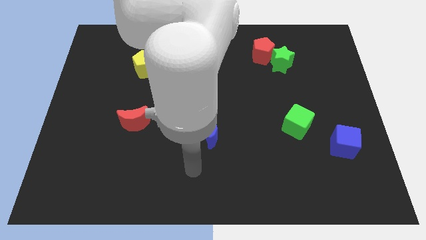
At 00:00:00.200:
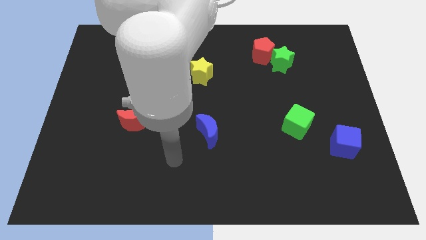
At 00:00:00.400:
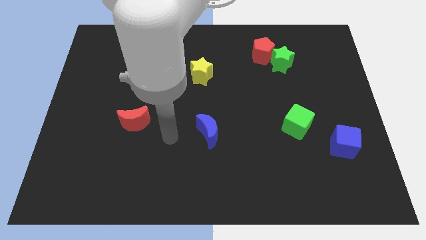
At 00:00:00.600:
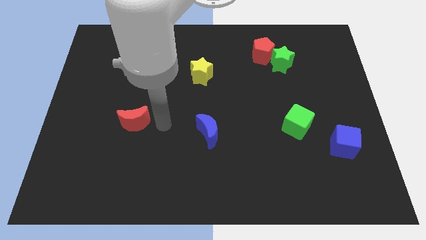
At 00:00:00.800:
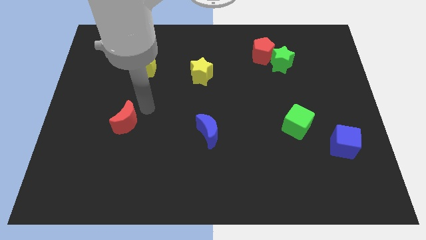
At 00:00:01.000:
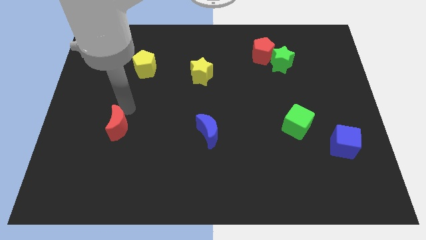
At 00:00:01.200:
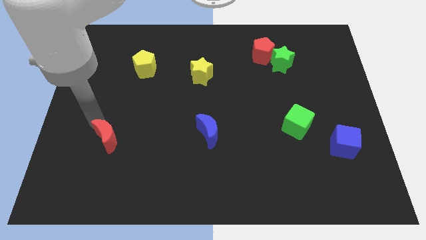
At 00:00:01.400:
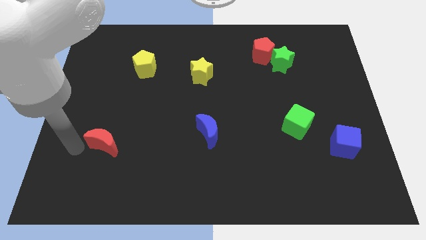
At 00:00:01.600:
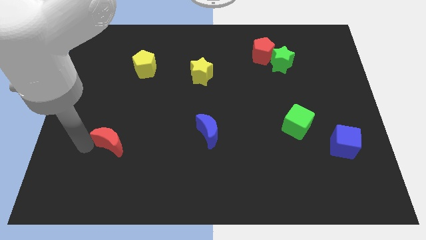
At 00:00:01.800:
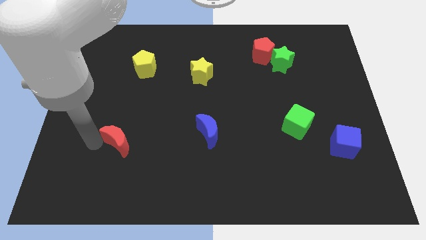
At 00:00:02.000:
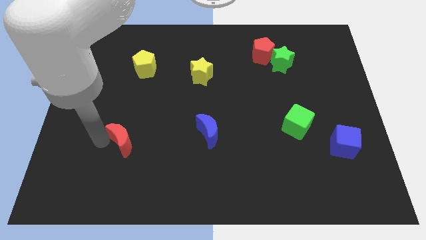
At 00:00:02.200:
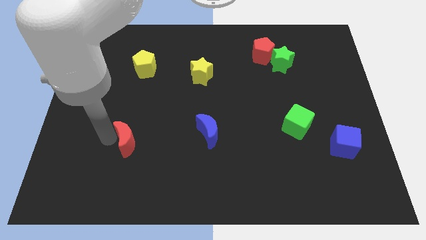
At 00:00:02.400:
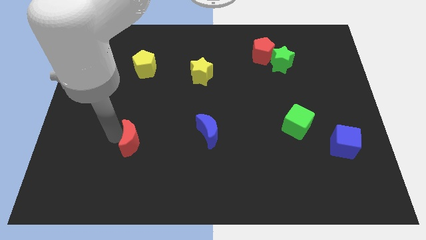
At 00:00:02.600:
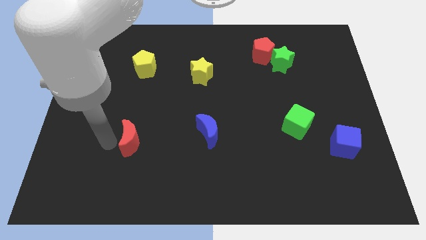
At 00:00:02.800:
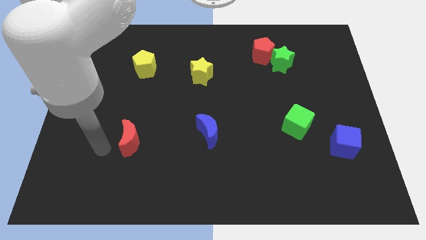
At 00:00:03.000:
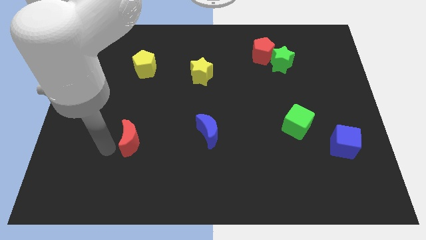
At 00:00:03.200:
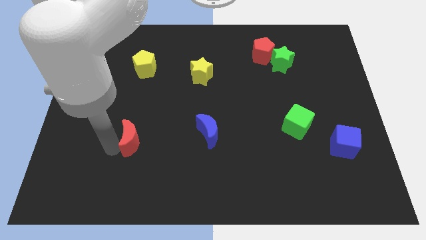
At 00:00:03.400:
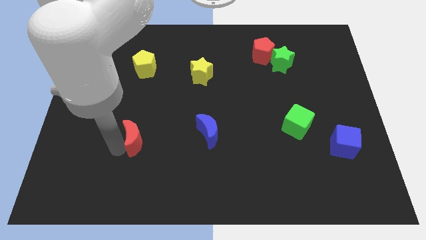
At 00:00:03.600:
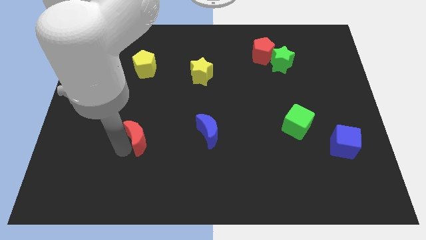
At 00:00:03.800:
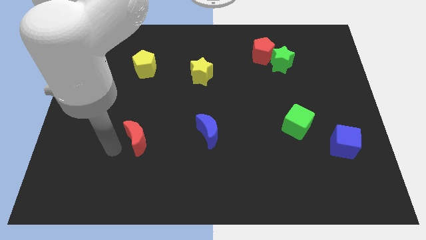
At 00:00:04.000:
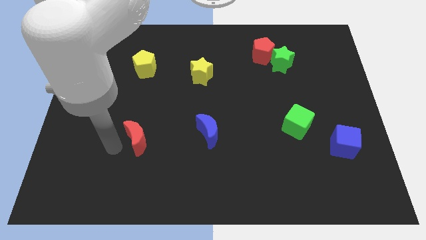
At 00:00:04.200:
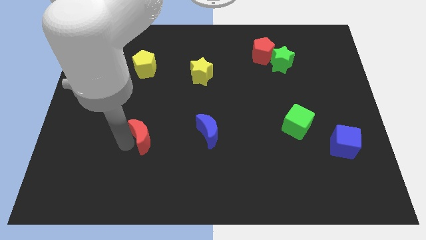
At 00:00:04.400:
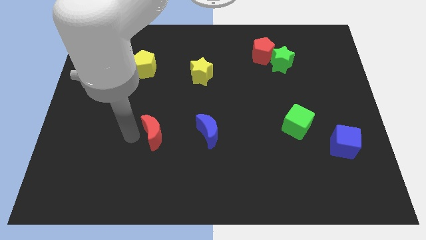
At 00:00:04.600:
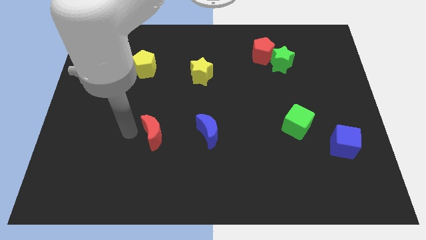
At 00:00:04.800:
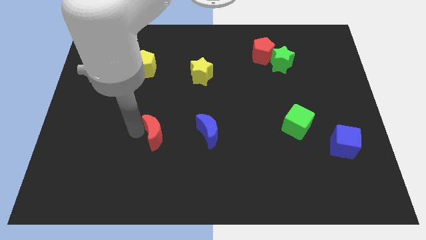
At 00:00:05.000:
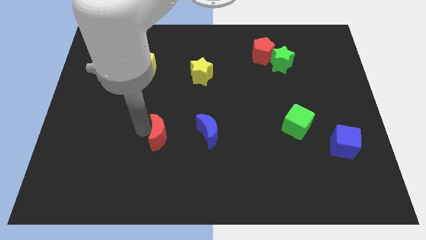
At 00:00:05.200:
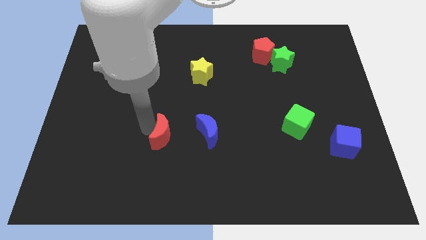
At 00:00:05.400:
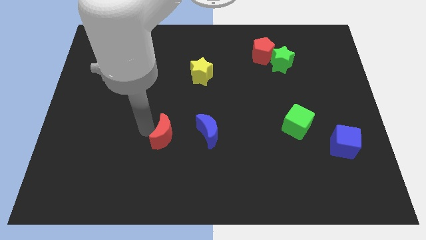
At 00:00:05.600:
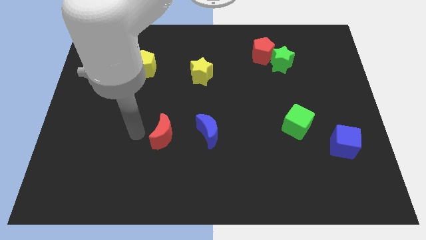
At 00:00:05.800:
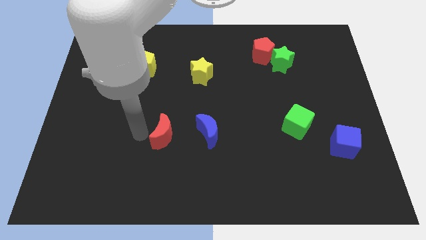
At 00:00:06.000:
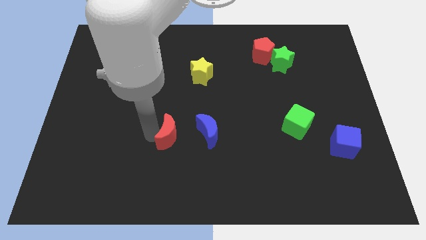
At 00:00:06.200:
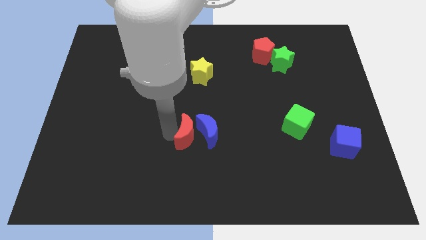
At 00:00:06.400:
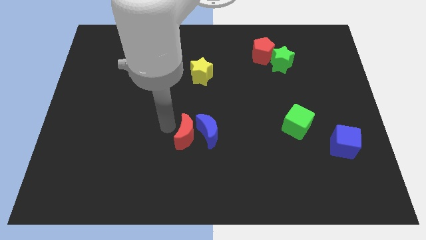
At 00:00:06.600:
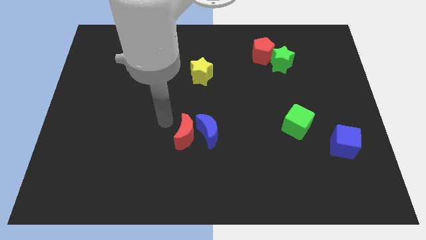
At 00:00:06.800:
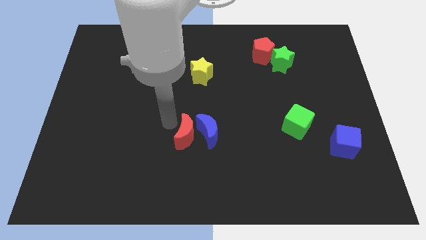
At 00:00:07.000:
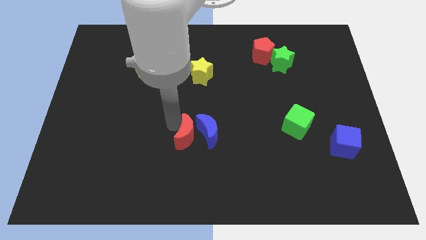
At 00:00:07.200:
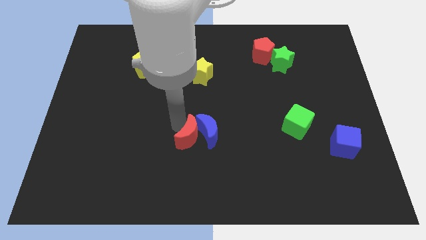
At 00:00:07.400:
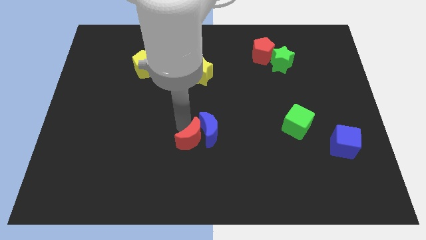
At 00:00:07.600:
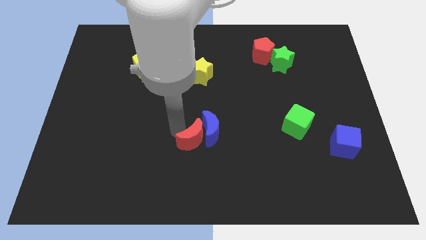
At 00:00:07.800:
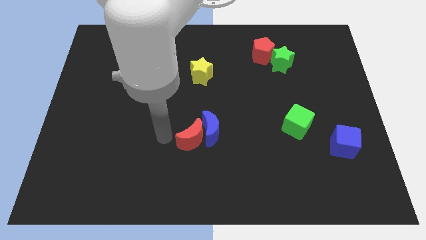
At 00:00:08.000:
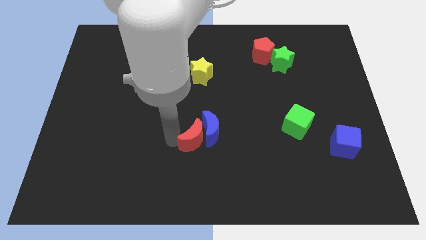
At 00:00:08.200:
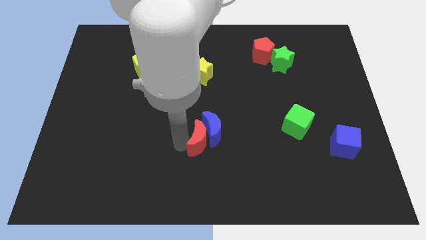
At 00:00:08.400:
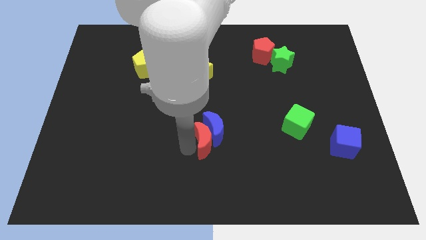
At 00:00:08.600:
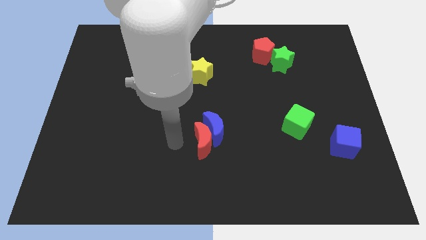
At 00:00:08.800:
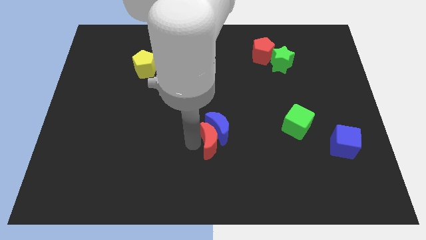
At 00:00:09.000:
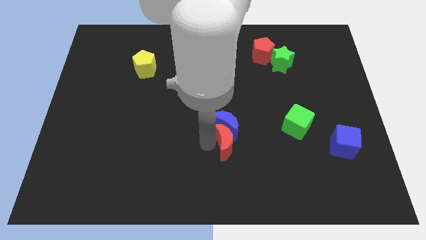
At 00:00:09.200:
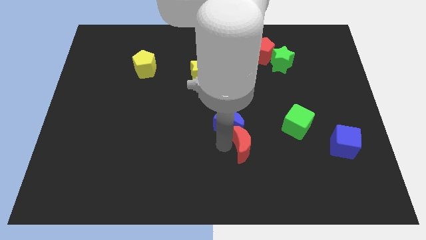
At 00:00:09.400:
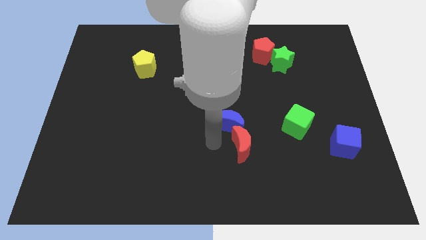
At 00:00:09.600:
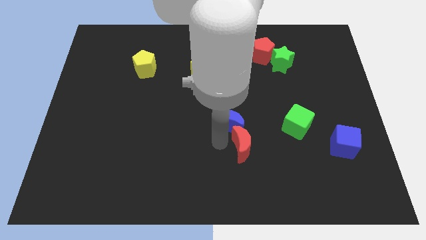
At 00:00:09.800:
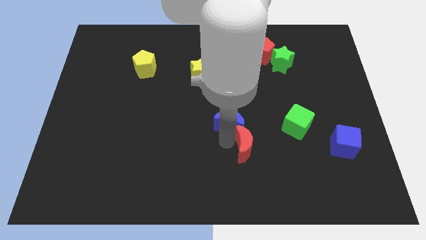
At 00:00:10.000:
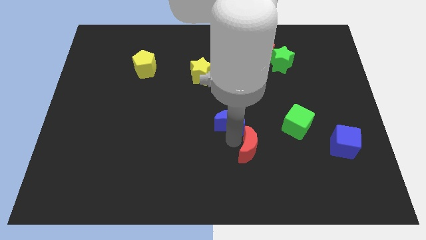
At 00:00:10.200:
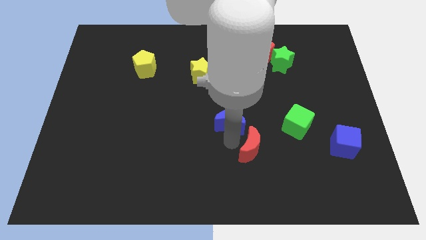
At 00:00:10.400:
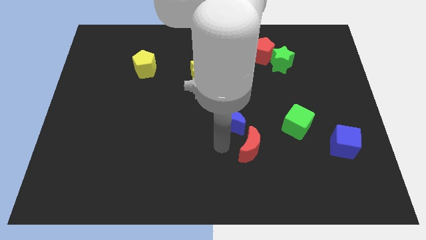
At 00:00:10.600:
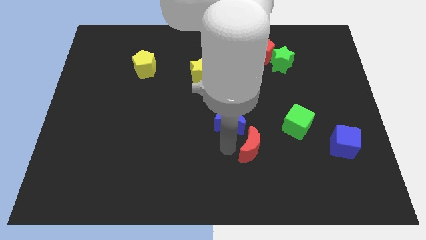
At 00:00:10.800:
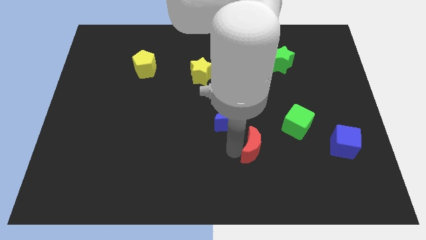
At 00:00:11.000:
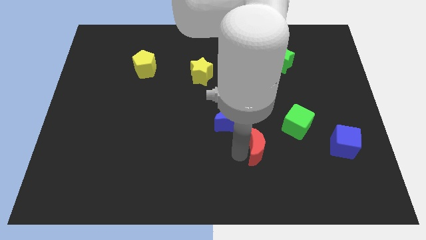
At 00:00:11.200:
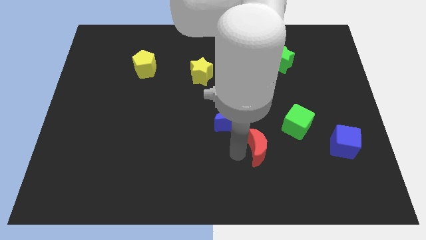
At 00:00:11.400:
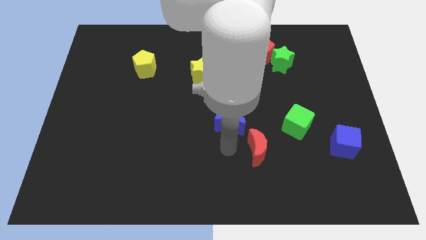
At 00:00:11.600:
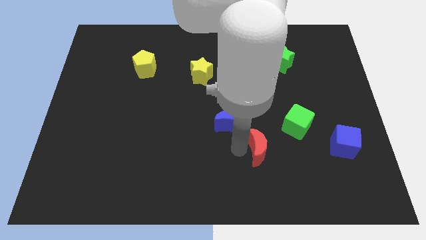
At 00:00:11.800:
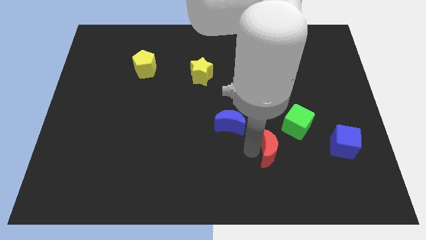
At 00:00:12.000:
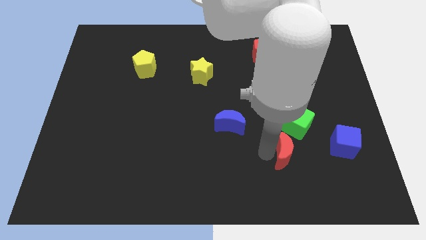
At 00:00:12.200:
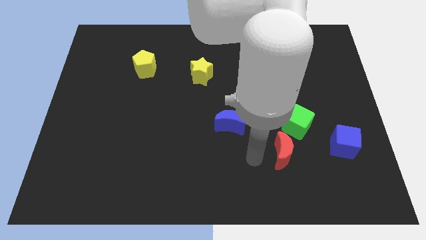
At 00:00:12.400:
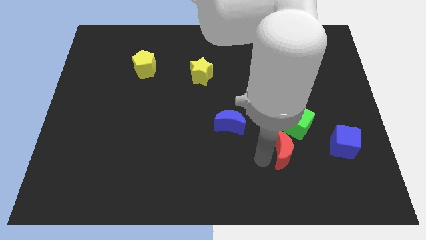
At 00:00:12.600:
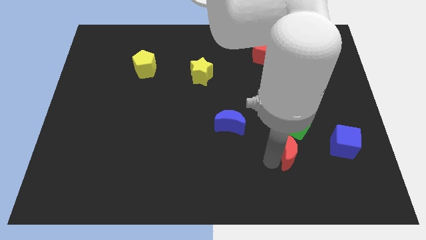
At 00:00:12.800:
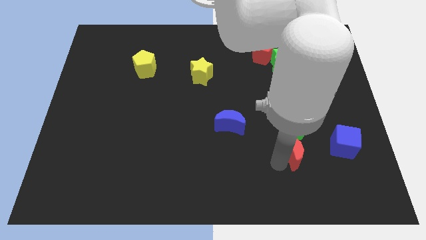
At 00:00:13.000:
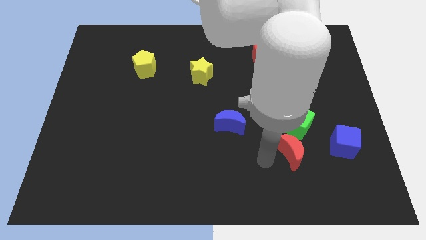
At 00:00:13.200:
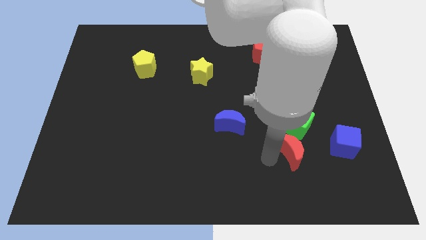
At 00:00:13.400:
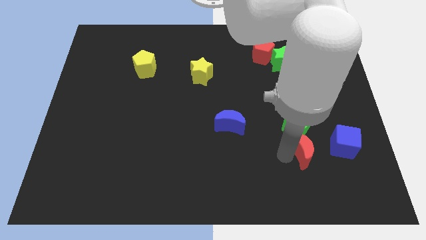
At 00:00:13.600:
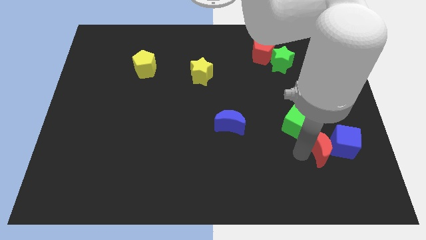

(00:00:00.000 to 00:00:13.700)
push the red moon to the blue cube

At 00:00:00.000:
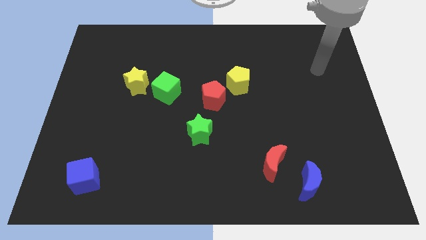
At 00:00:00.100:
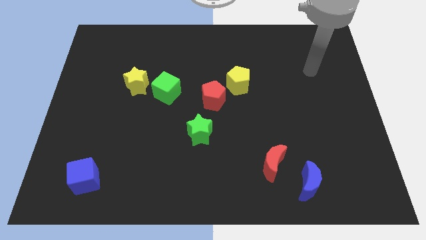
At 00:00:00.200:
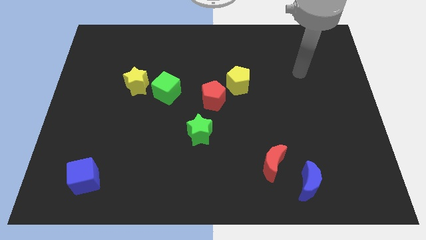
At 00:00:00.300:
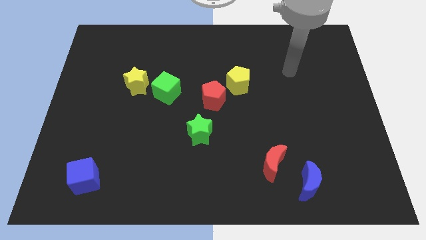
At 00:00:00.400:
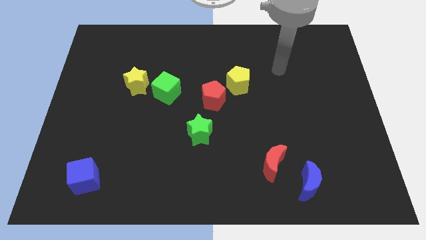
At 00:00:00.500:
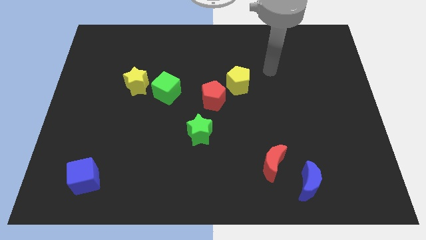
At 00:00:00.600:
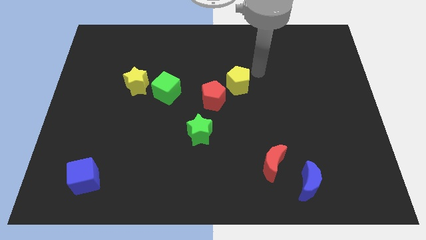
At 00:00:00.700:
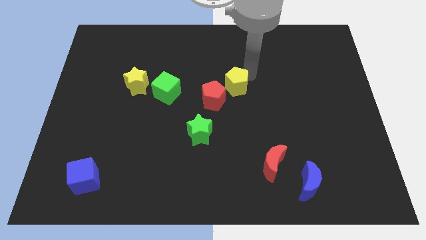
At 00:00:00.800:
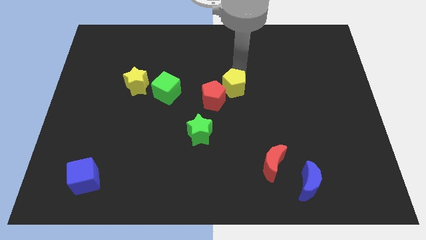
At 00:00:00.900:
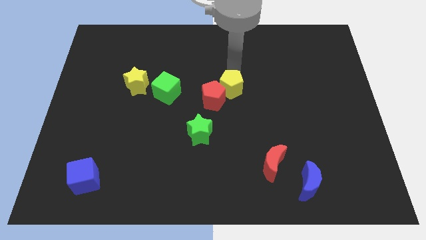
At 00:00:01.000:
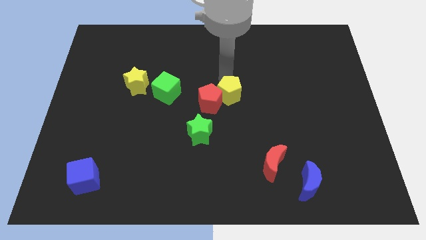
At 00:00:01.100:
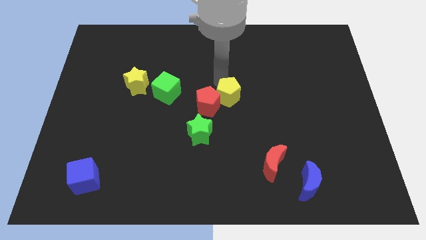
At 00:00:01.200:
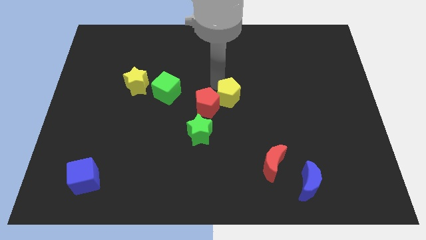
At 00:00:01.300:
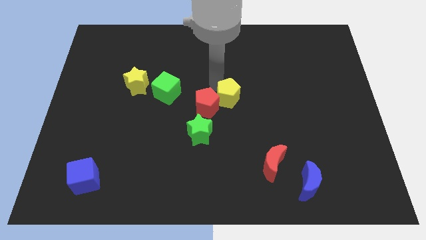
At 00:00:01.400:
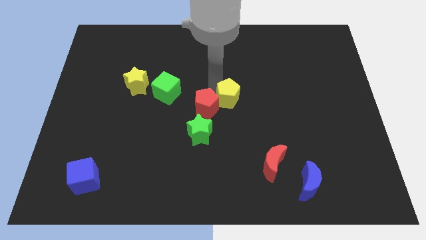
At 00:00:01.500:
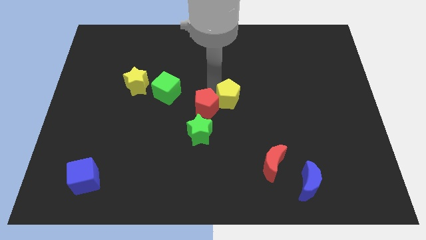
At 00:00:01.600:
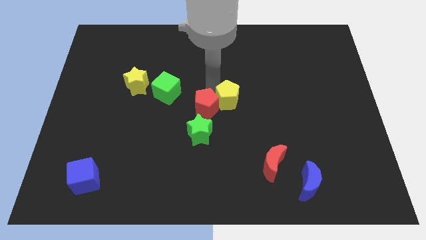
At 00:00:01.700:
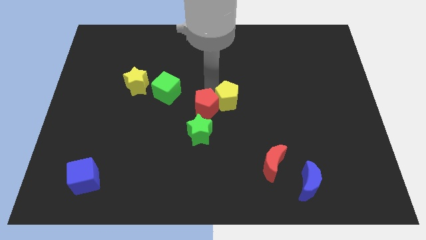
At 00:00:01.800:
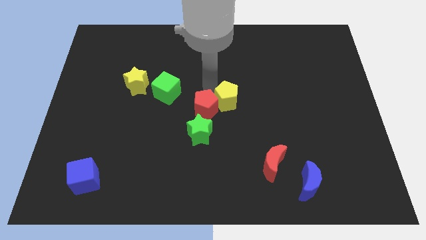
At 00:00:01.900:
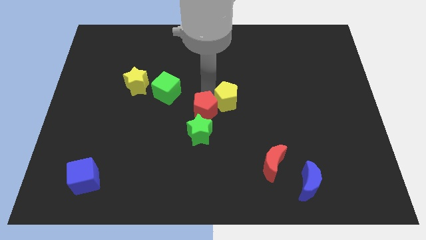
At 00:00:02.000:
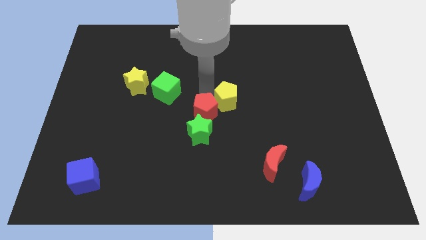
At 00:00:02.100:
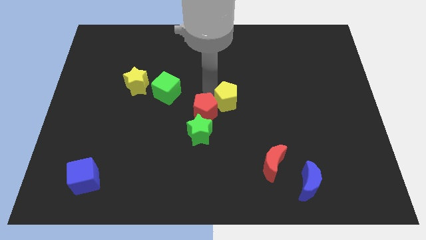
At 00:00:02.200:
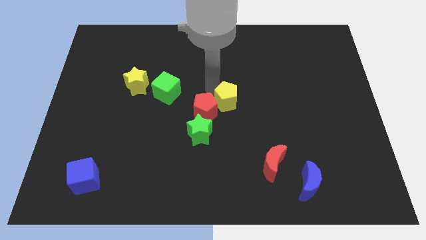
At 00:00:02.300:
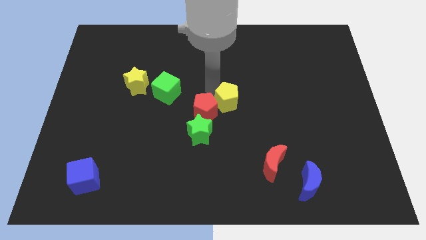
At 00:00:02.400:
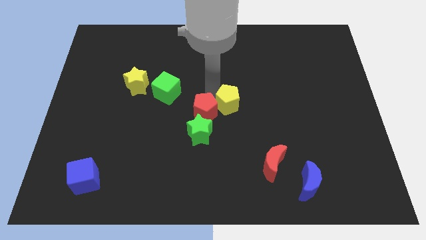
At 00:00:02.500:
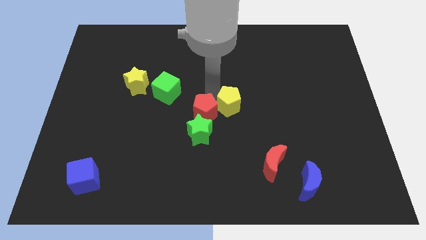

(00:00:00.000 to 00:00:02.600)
move the red pentagon next to the green star
